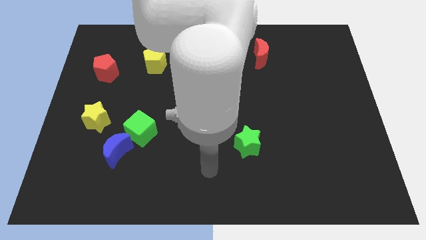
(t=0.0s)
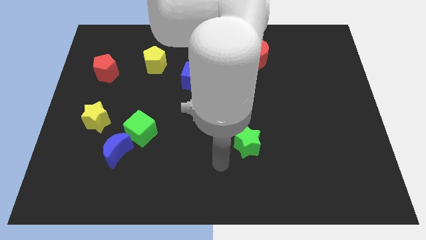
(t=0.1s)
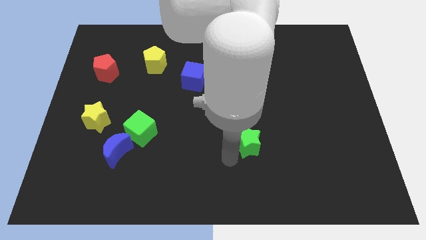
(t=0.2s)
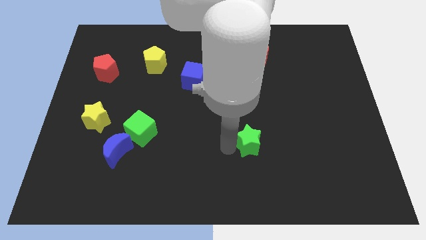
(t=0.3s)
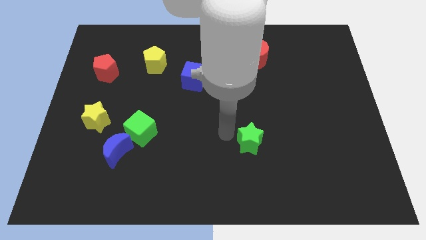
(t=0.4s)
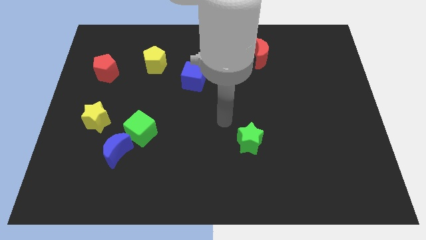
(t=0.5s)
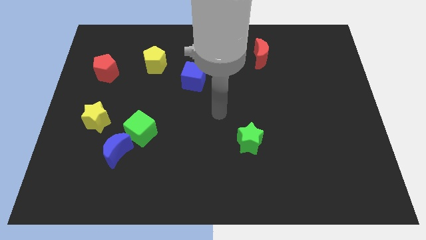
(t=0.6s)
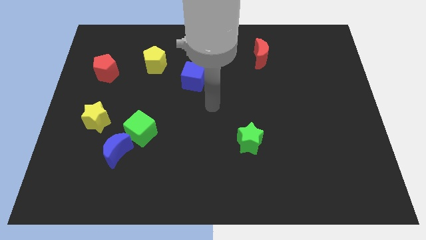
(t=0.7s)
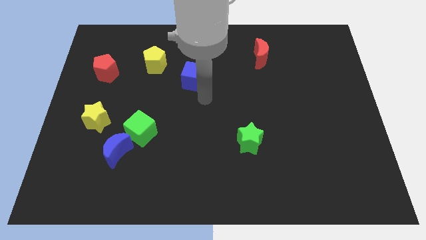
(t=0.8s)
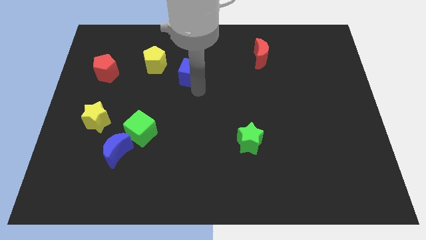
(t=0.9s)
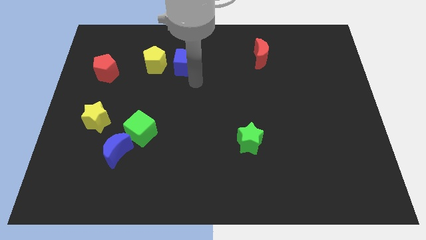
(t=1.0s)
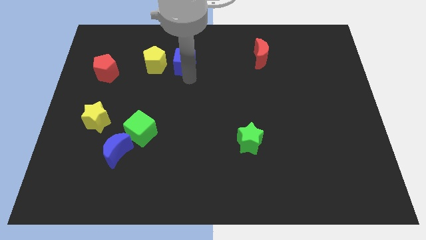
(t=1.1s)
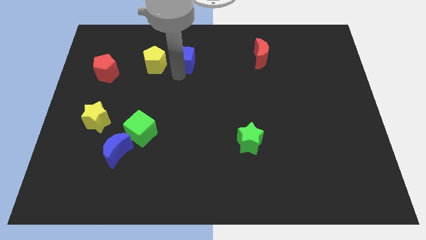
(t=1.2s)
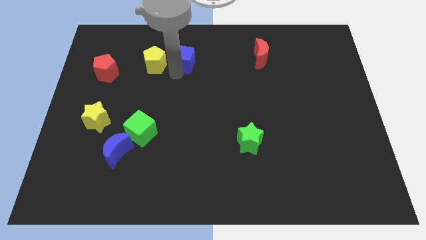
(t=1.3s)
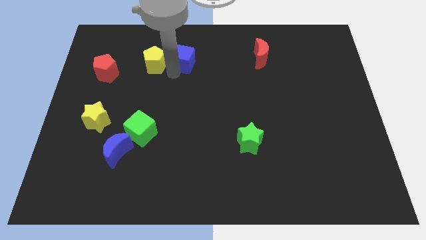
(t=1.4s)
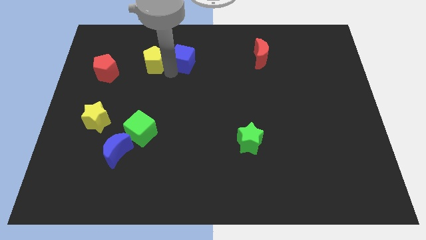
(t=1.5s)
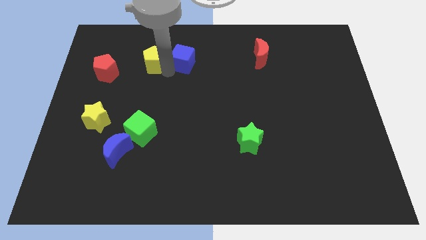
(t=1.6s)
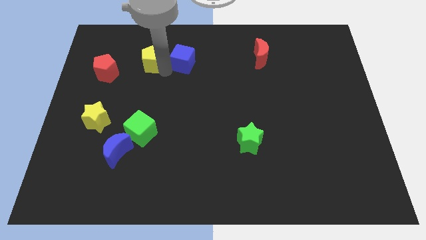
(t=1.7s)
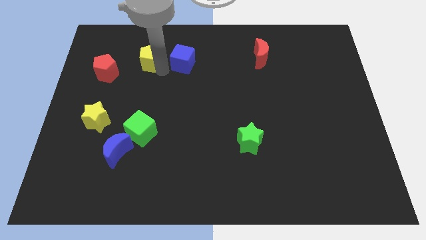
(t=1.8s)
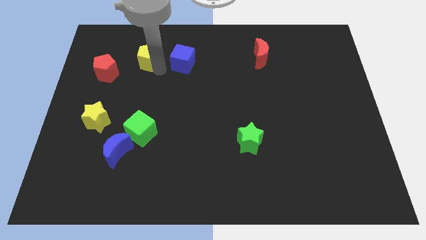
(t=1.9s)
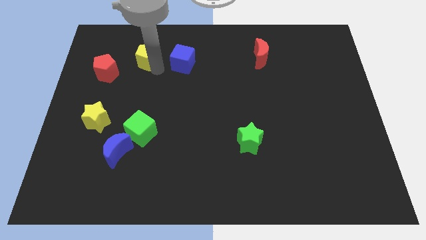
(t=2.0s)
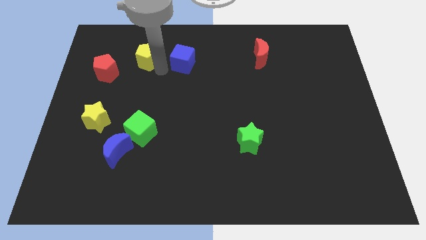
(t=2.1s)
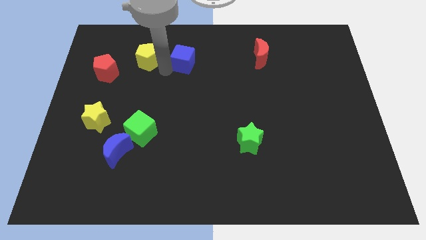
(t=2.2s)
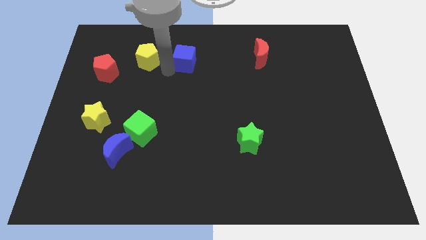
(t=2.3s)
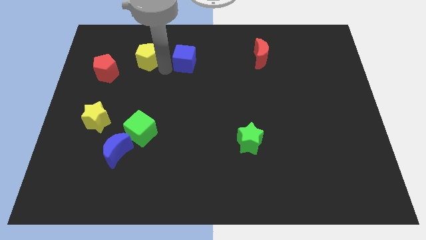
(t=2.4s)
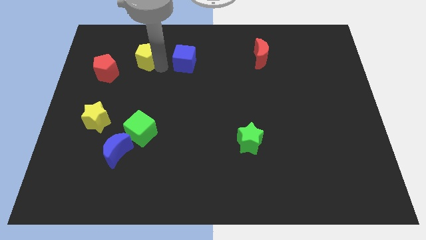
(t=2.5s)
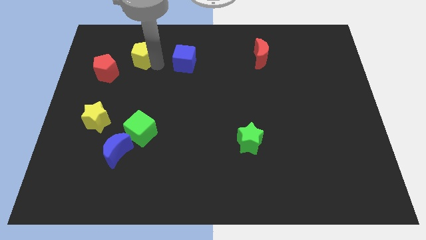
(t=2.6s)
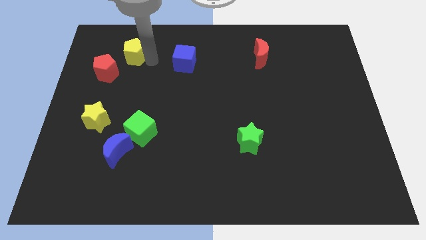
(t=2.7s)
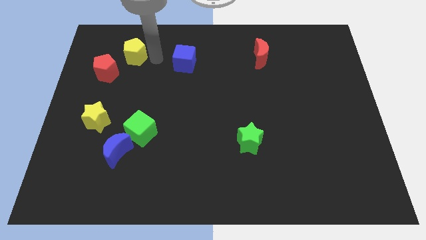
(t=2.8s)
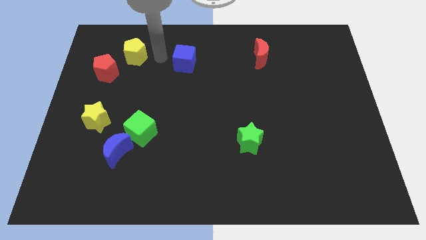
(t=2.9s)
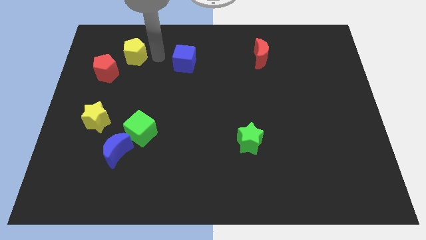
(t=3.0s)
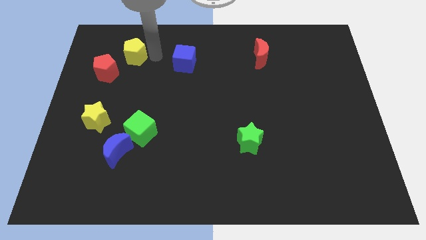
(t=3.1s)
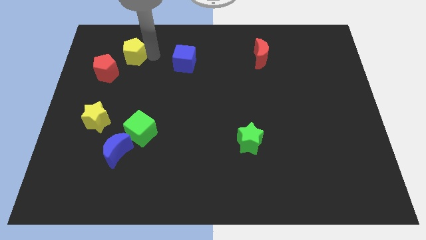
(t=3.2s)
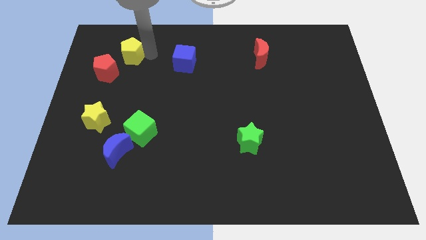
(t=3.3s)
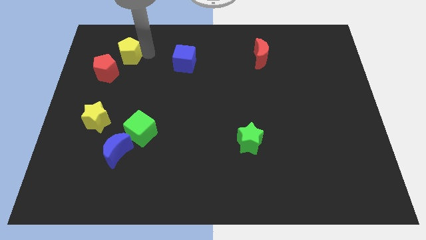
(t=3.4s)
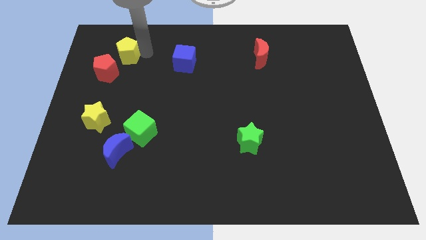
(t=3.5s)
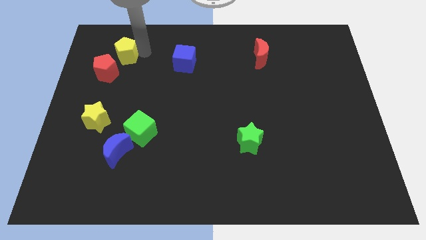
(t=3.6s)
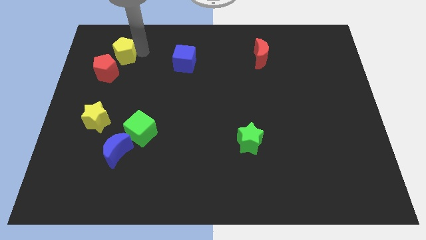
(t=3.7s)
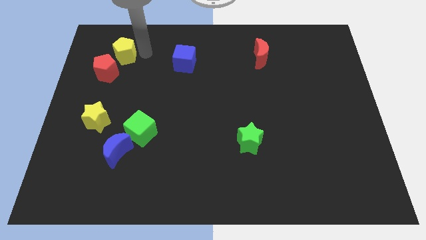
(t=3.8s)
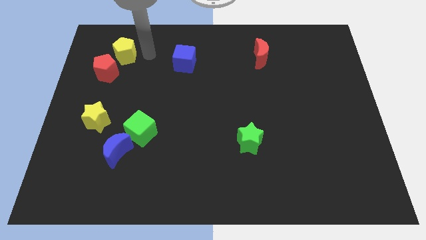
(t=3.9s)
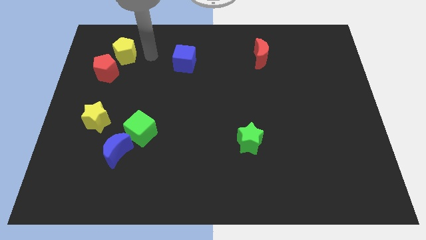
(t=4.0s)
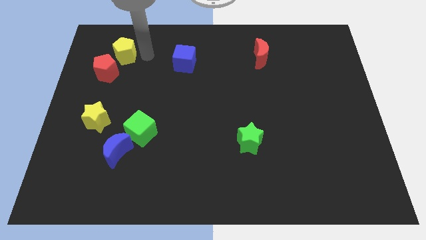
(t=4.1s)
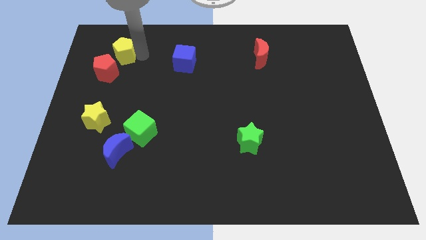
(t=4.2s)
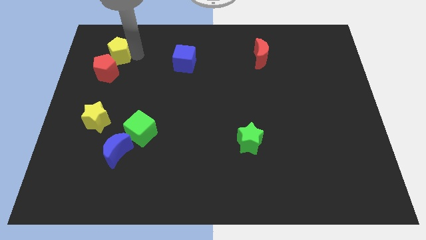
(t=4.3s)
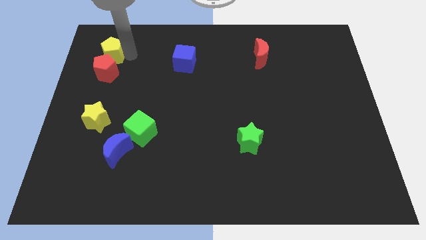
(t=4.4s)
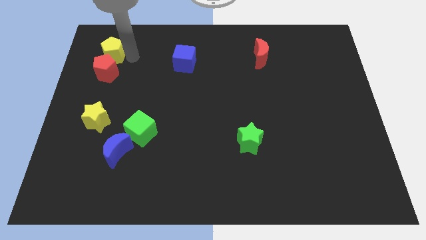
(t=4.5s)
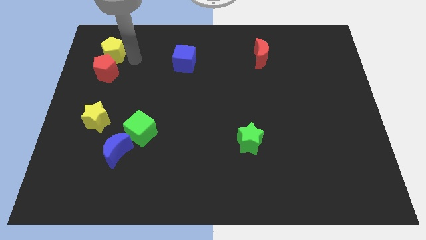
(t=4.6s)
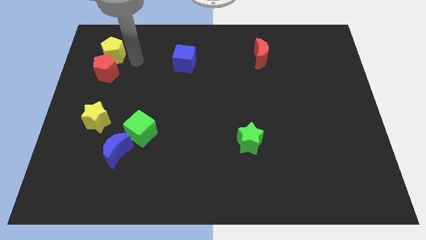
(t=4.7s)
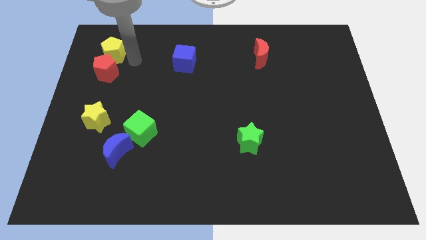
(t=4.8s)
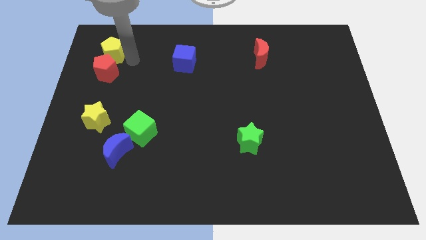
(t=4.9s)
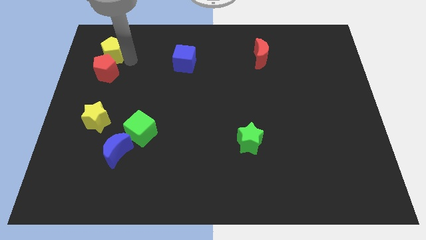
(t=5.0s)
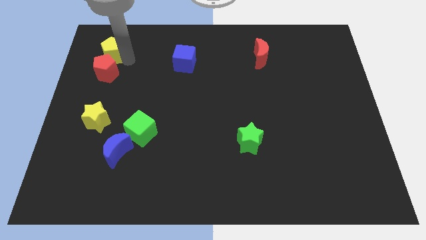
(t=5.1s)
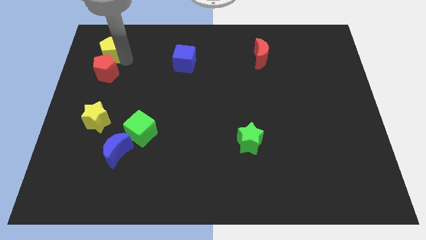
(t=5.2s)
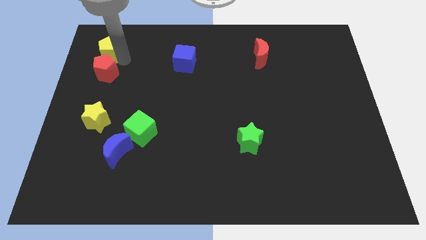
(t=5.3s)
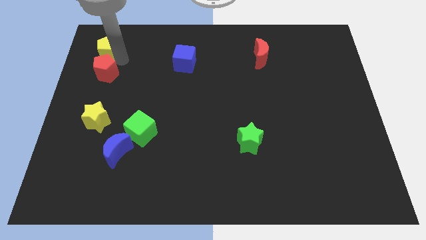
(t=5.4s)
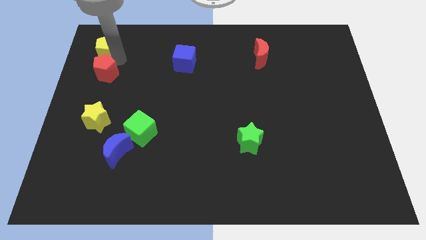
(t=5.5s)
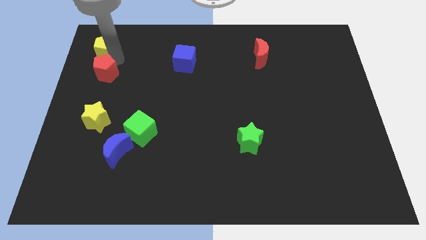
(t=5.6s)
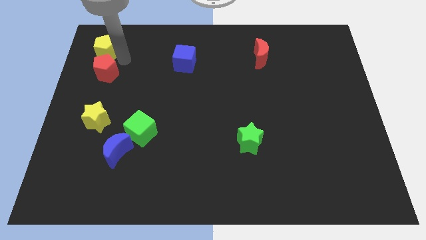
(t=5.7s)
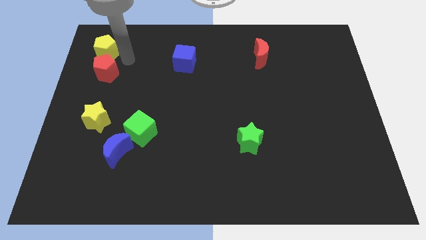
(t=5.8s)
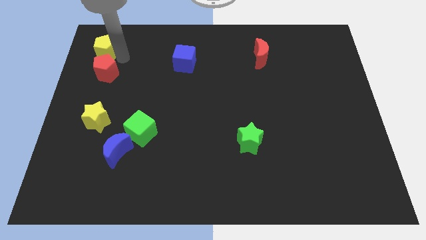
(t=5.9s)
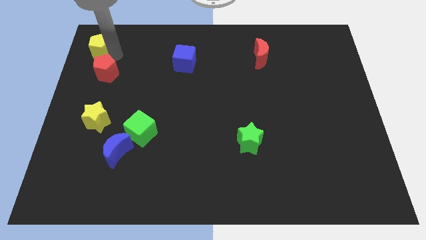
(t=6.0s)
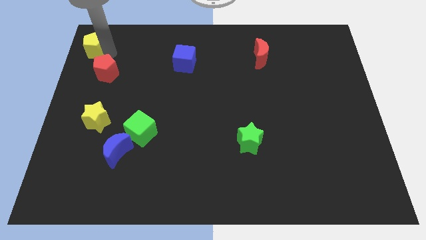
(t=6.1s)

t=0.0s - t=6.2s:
put the yellow pentagon to the upper left corner

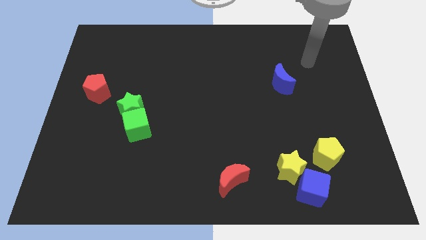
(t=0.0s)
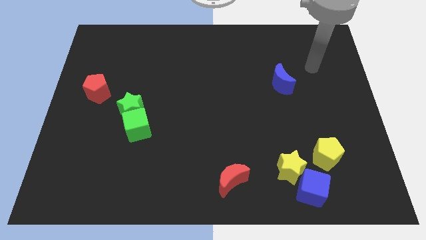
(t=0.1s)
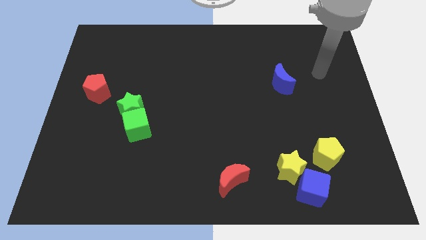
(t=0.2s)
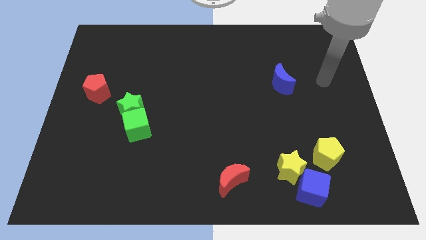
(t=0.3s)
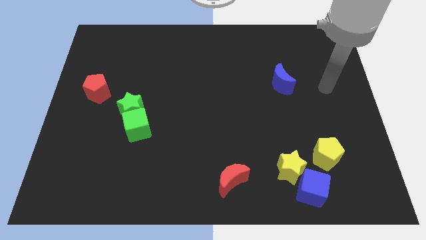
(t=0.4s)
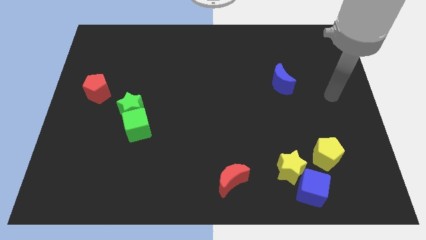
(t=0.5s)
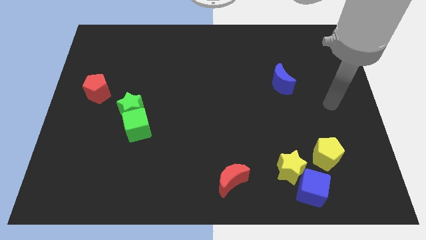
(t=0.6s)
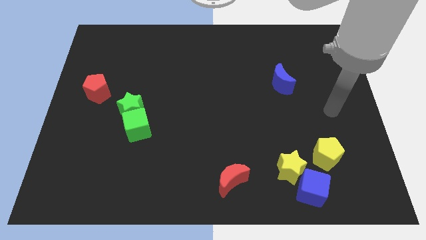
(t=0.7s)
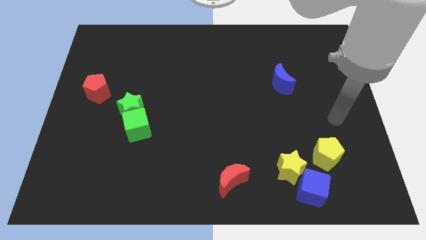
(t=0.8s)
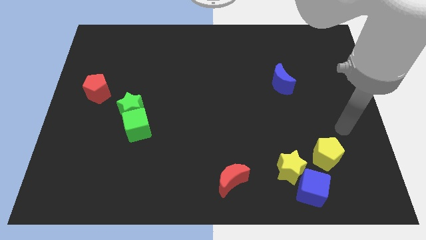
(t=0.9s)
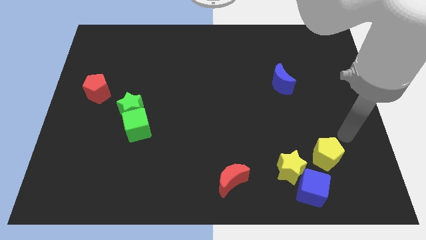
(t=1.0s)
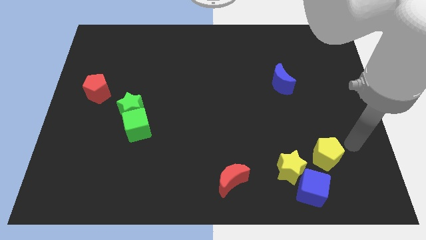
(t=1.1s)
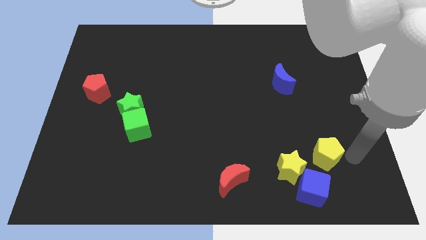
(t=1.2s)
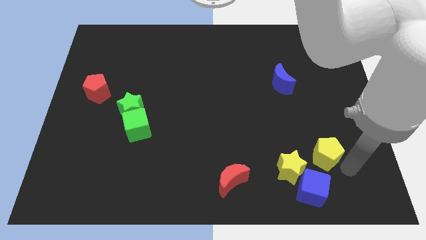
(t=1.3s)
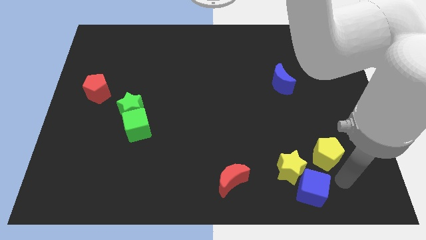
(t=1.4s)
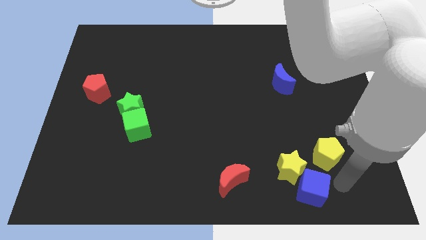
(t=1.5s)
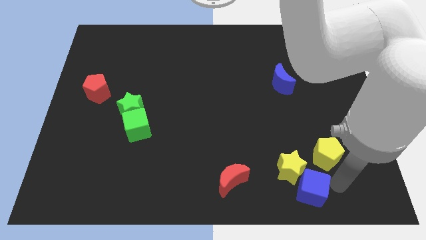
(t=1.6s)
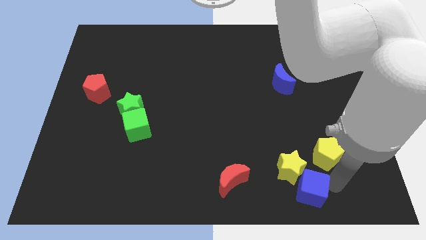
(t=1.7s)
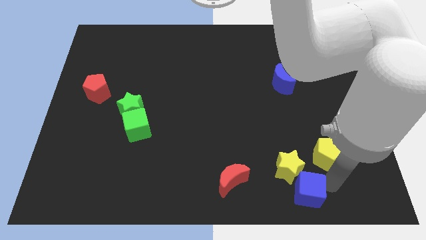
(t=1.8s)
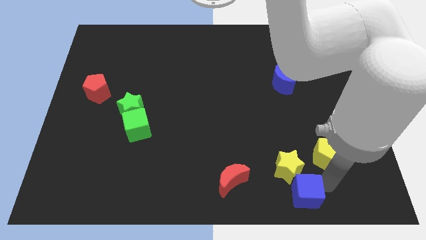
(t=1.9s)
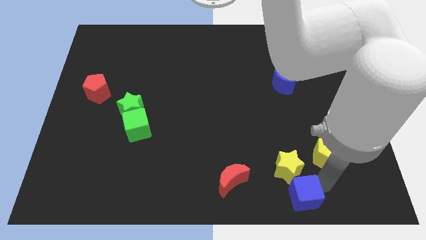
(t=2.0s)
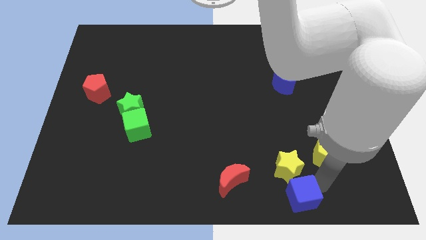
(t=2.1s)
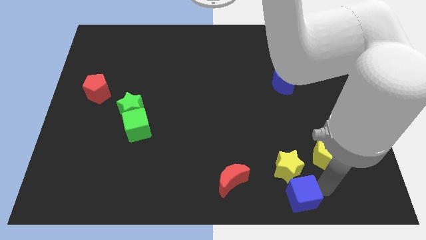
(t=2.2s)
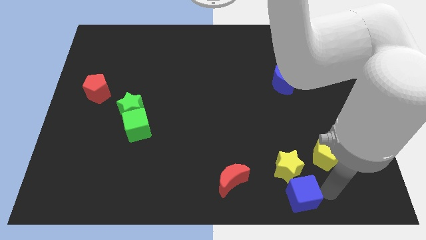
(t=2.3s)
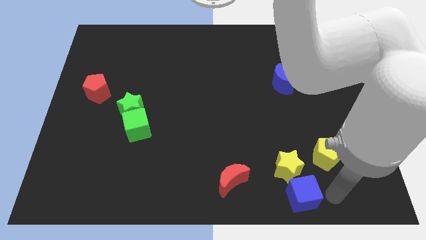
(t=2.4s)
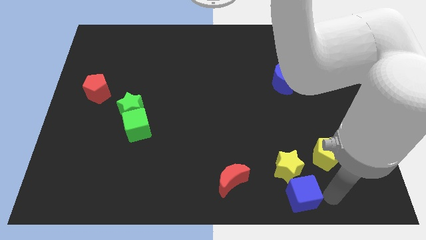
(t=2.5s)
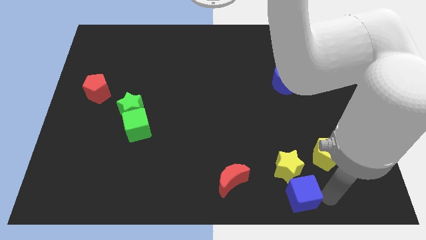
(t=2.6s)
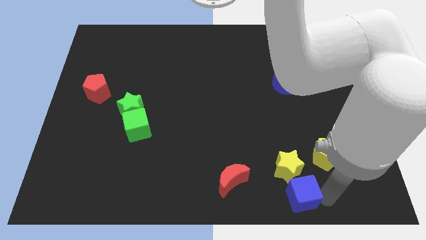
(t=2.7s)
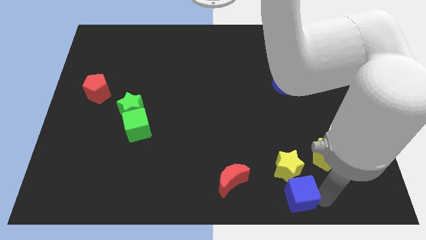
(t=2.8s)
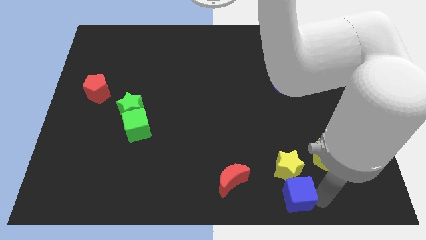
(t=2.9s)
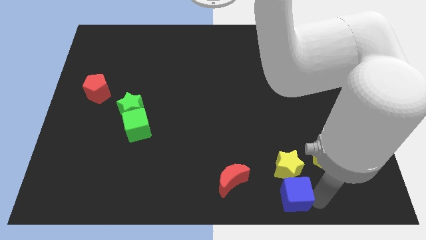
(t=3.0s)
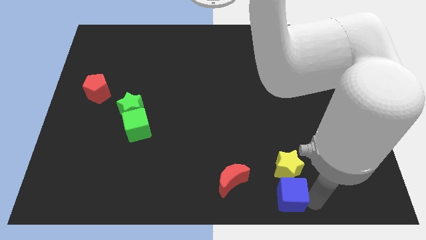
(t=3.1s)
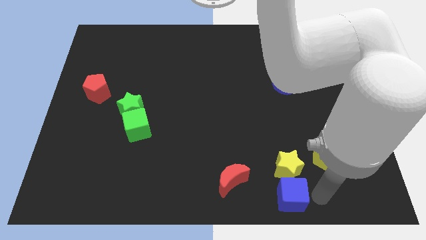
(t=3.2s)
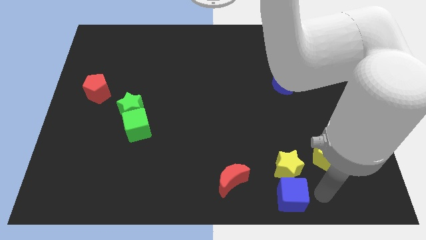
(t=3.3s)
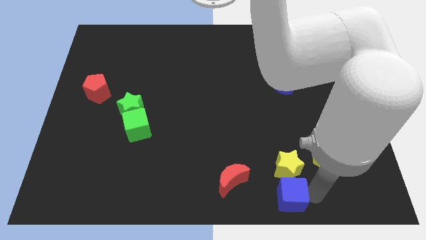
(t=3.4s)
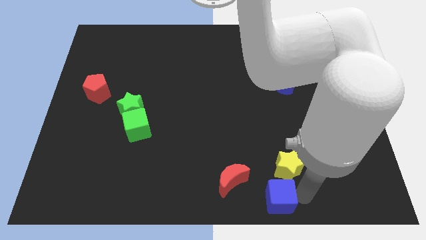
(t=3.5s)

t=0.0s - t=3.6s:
put the blue cube to the bottom
